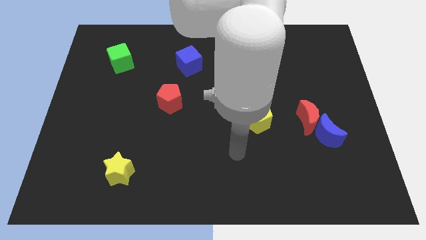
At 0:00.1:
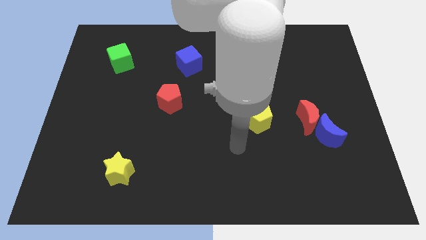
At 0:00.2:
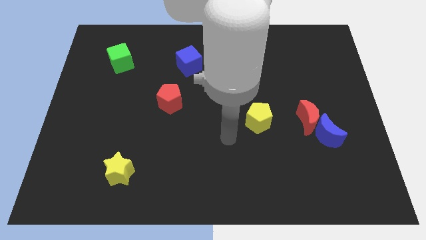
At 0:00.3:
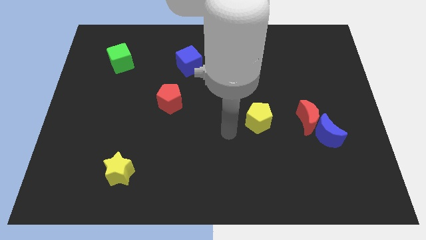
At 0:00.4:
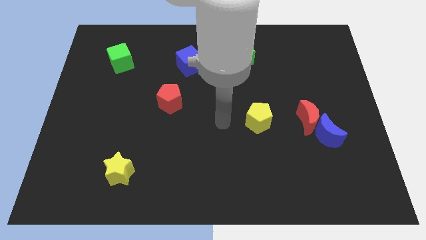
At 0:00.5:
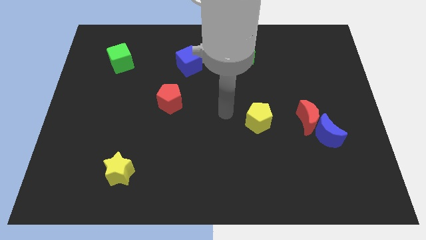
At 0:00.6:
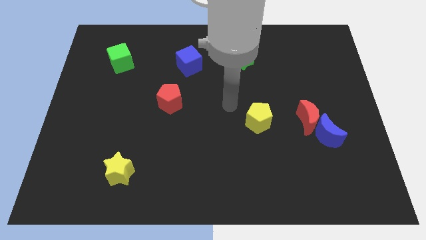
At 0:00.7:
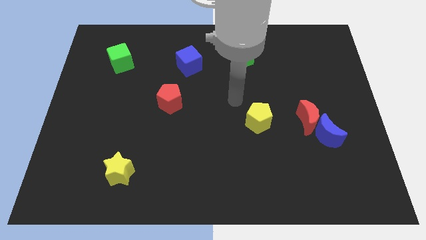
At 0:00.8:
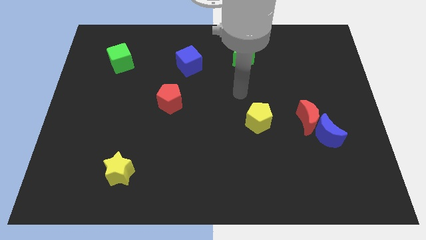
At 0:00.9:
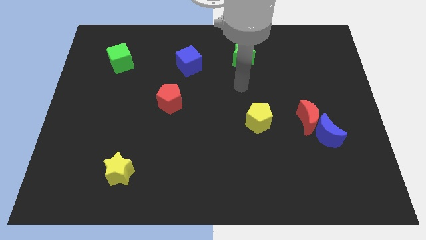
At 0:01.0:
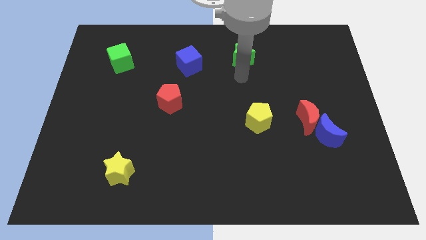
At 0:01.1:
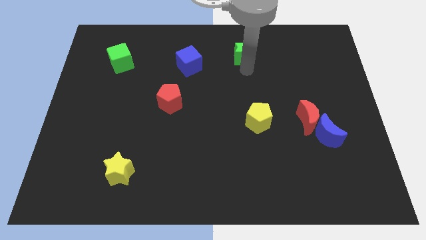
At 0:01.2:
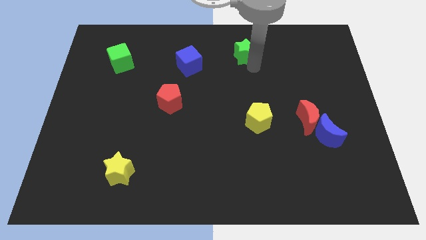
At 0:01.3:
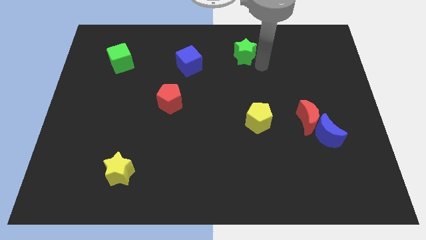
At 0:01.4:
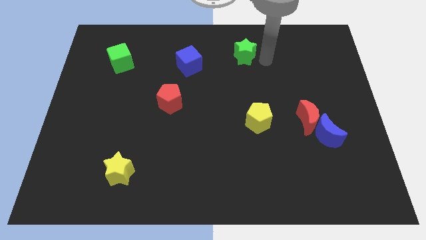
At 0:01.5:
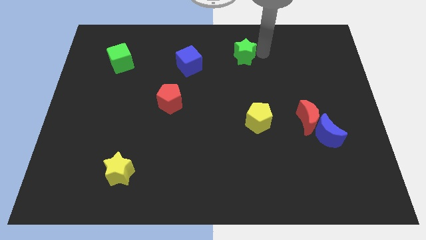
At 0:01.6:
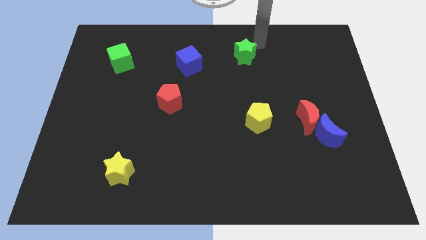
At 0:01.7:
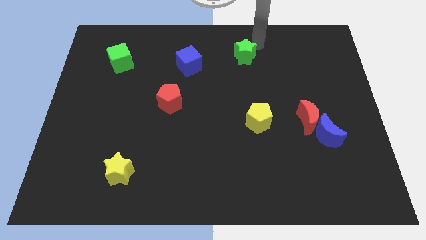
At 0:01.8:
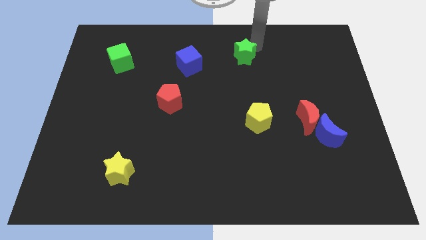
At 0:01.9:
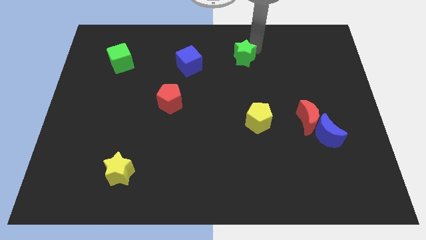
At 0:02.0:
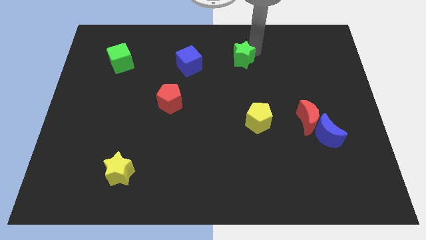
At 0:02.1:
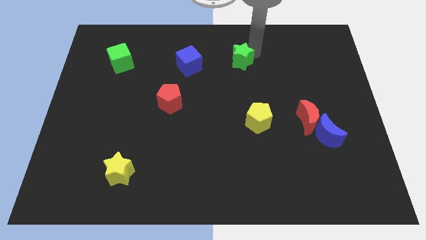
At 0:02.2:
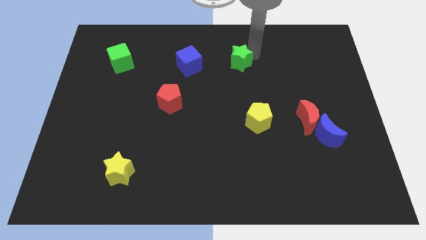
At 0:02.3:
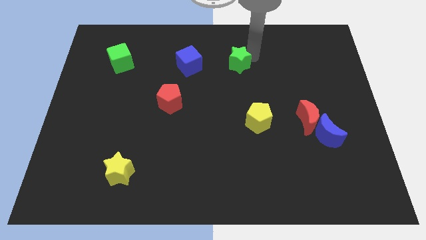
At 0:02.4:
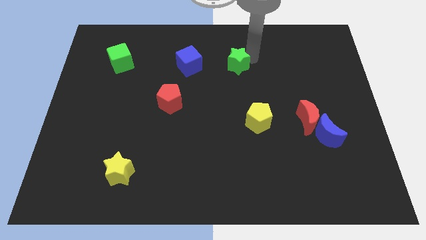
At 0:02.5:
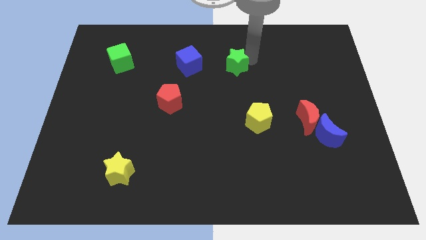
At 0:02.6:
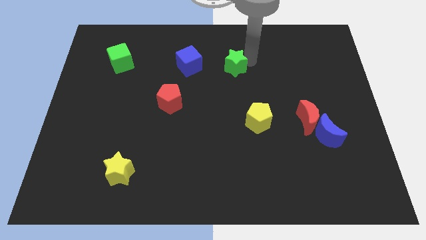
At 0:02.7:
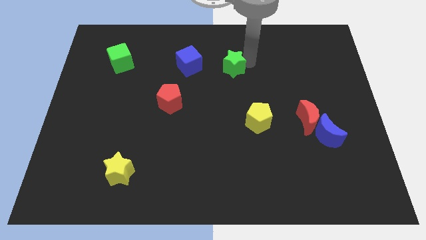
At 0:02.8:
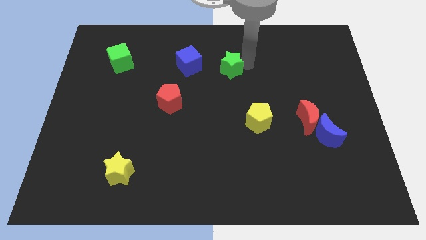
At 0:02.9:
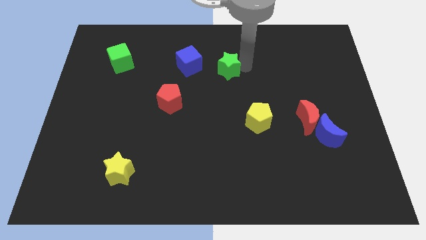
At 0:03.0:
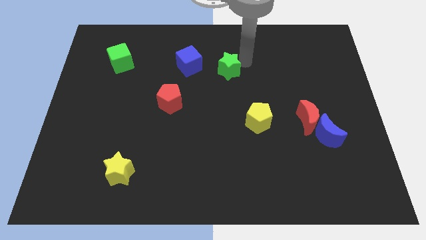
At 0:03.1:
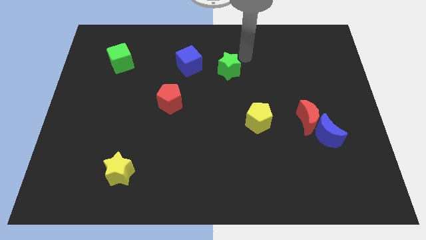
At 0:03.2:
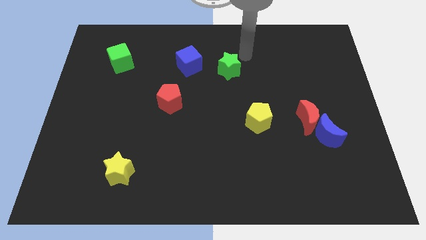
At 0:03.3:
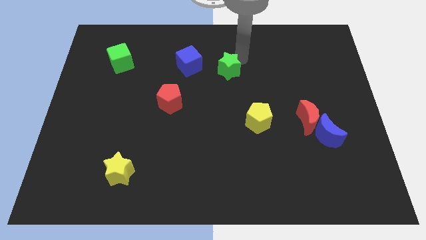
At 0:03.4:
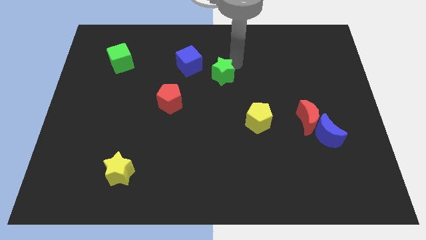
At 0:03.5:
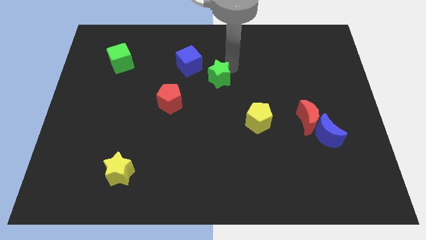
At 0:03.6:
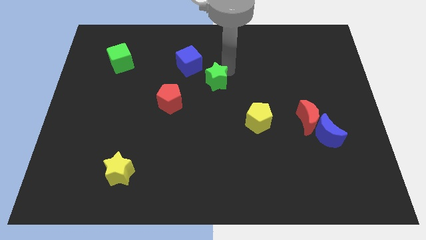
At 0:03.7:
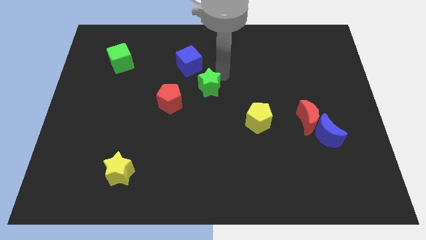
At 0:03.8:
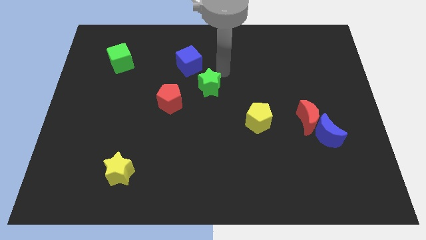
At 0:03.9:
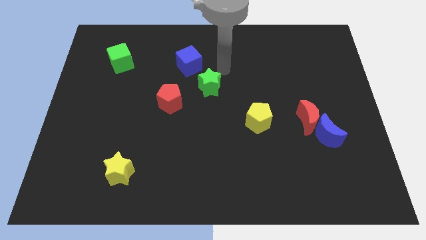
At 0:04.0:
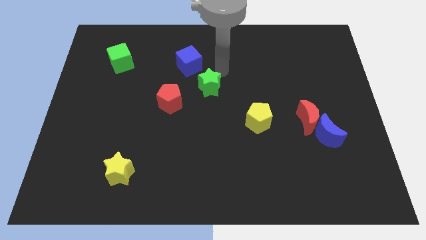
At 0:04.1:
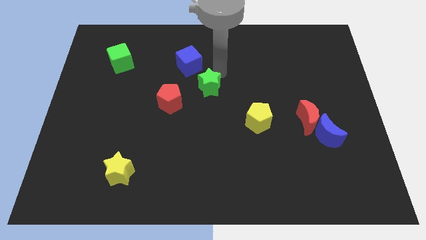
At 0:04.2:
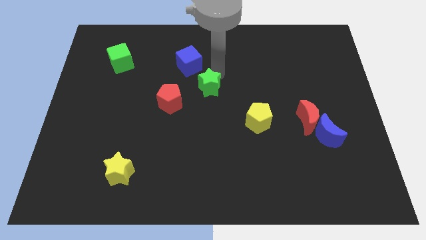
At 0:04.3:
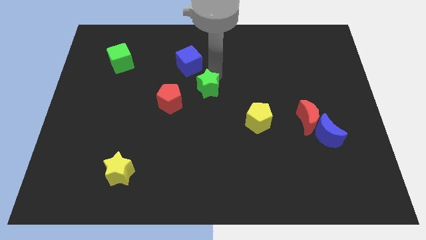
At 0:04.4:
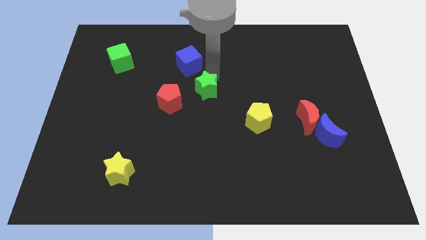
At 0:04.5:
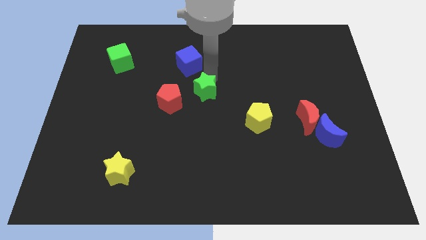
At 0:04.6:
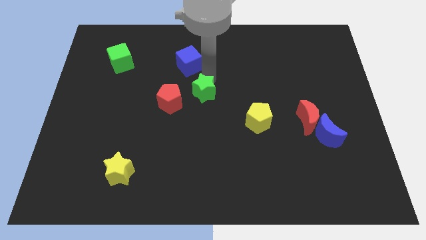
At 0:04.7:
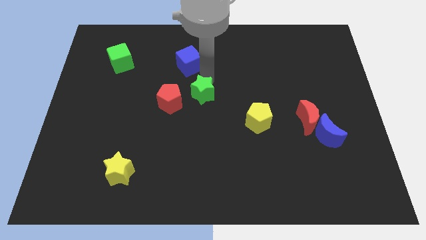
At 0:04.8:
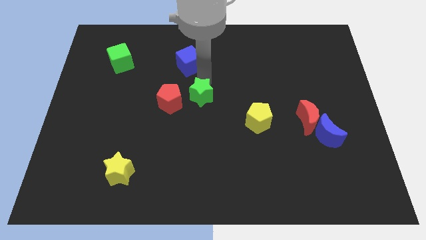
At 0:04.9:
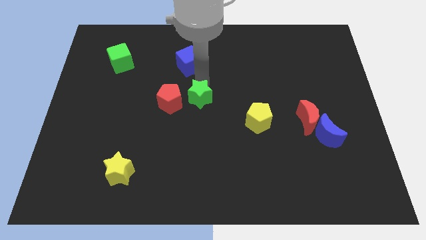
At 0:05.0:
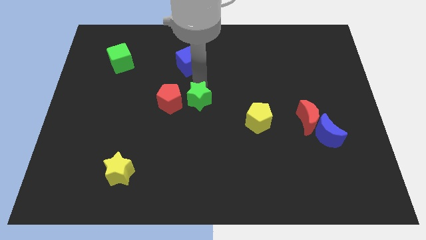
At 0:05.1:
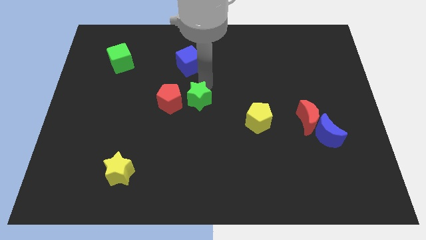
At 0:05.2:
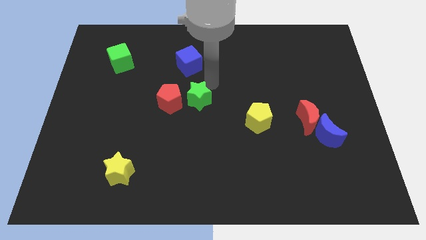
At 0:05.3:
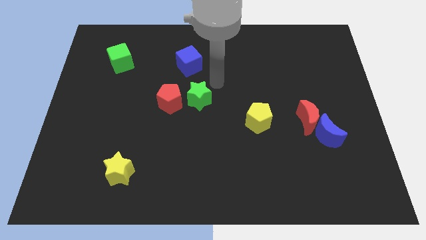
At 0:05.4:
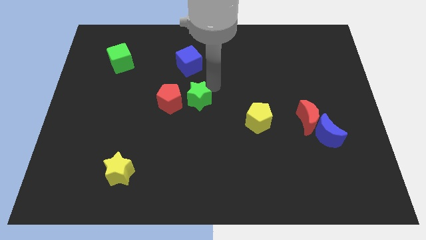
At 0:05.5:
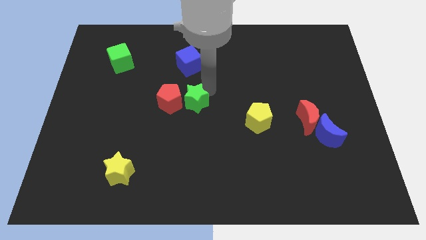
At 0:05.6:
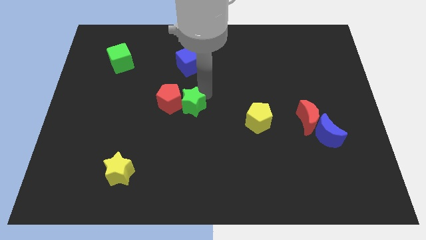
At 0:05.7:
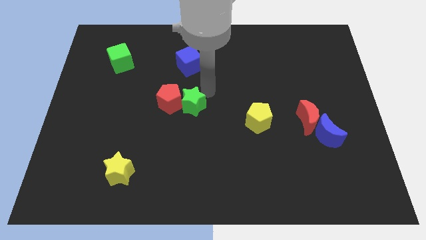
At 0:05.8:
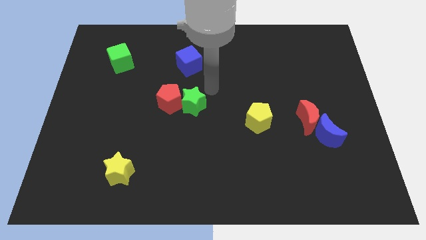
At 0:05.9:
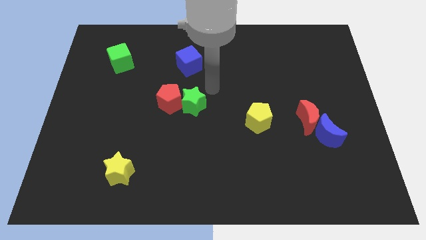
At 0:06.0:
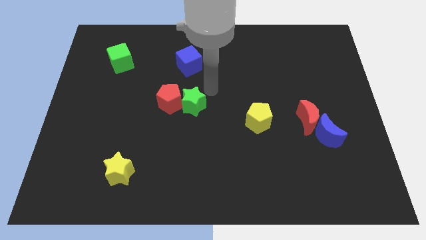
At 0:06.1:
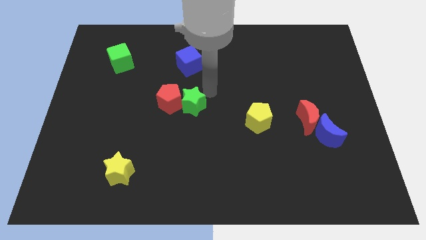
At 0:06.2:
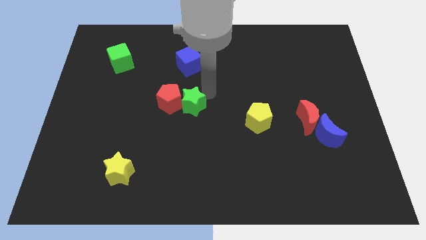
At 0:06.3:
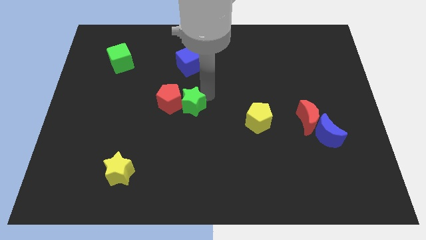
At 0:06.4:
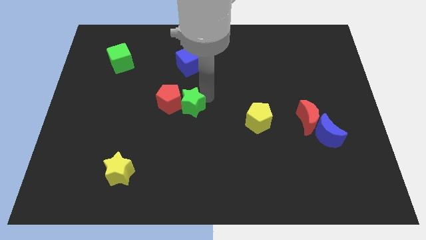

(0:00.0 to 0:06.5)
slide the green star downwards and then left

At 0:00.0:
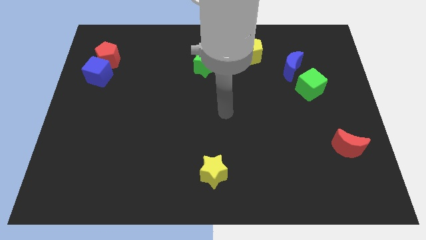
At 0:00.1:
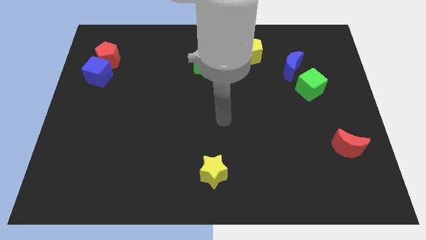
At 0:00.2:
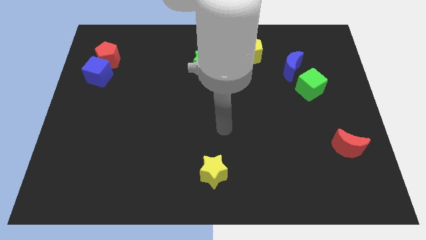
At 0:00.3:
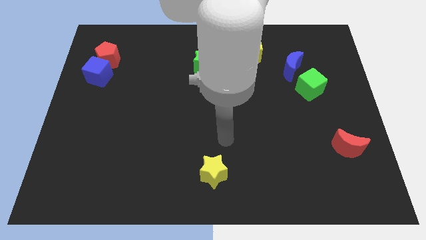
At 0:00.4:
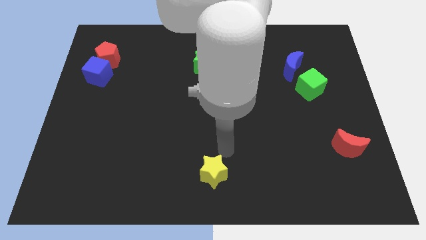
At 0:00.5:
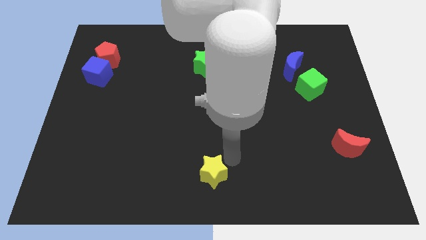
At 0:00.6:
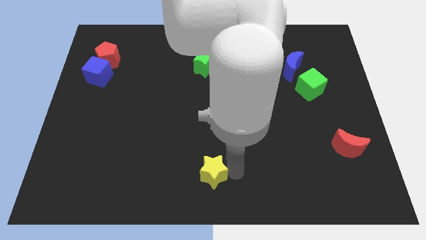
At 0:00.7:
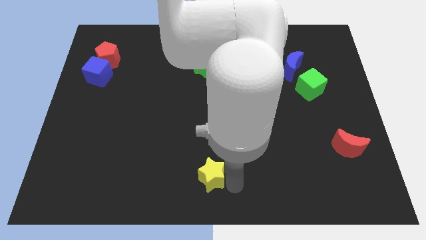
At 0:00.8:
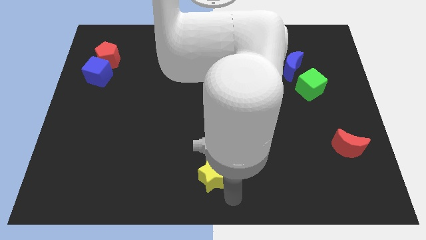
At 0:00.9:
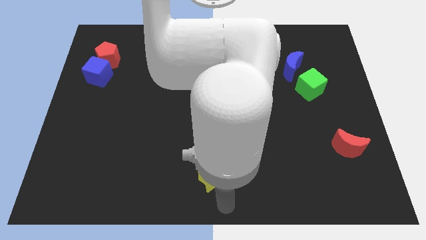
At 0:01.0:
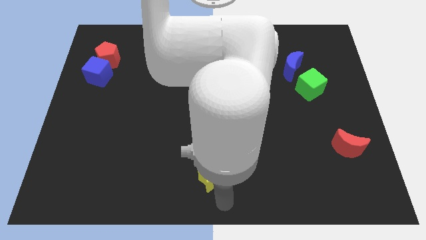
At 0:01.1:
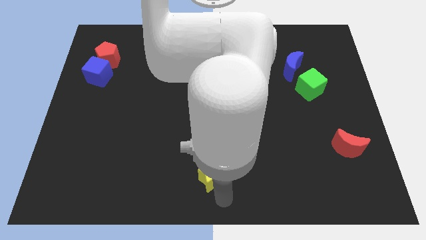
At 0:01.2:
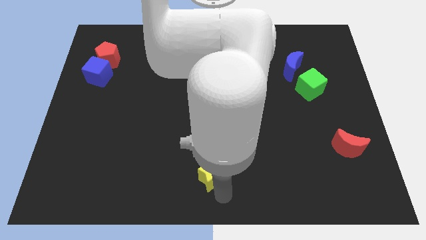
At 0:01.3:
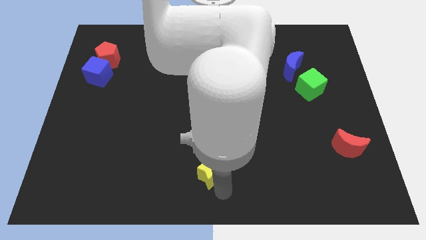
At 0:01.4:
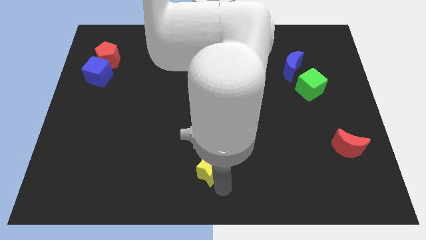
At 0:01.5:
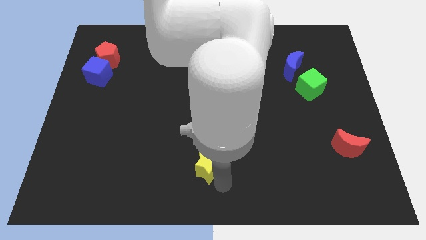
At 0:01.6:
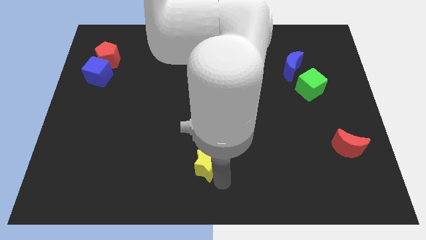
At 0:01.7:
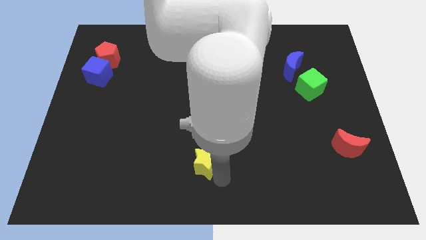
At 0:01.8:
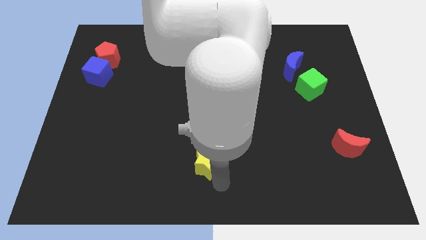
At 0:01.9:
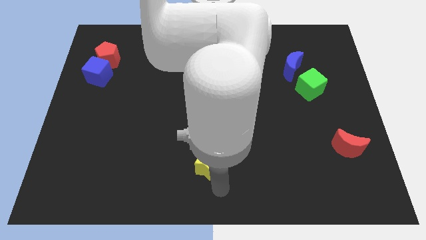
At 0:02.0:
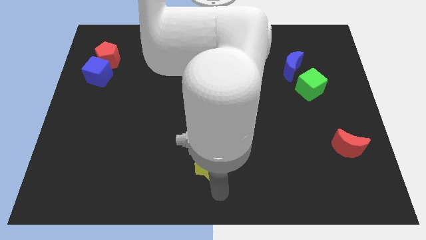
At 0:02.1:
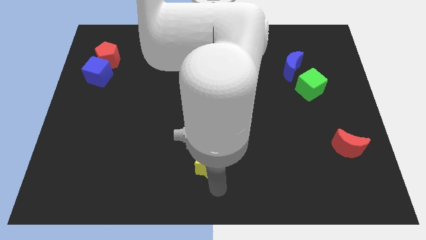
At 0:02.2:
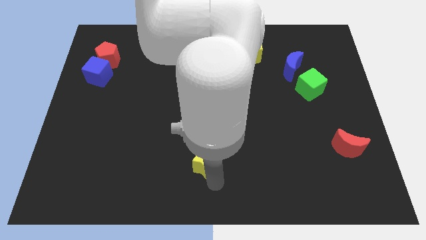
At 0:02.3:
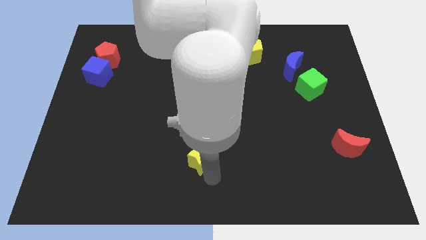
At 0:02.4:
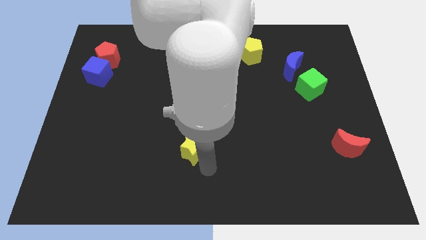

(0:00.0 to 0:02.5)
push the yellow star up and to the left a bit
